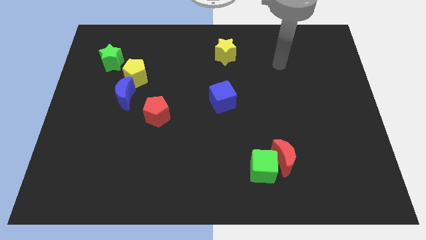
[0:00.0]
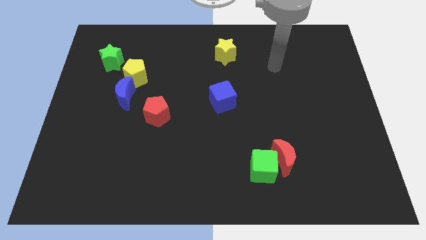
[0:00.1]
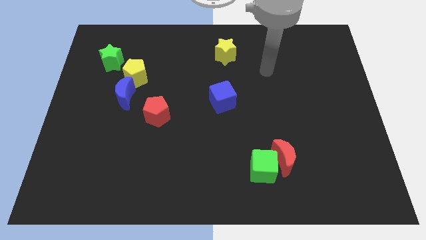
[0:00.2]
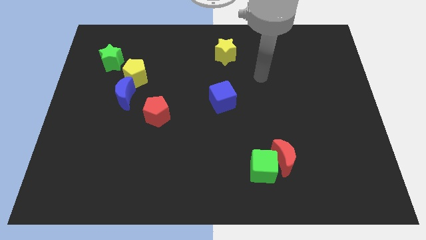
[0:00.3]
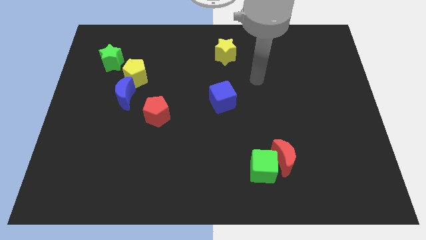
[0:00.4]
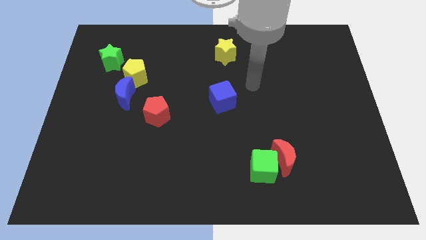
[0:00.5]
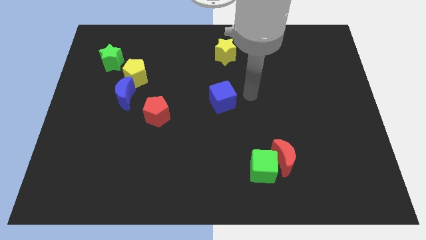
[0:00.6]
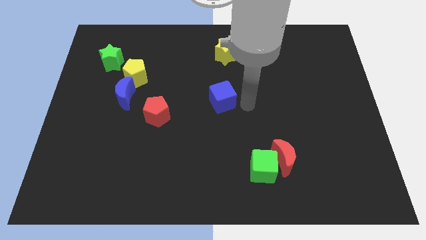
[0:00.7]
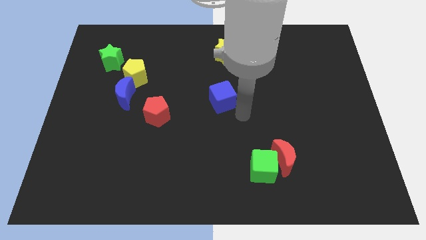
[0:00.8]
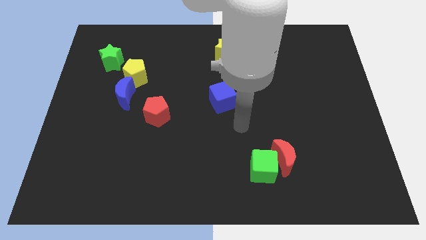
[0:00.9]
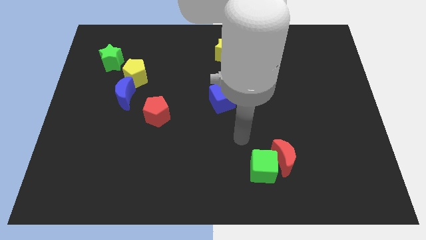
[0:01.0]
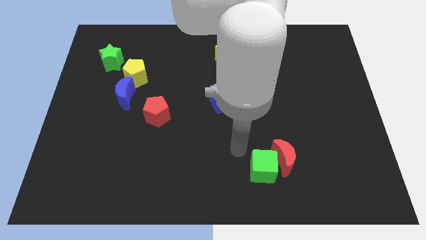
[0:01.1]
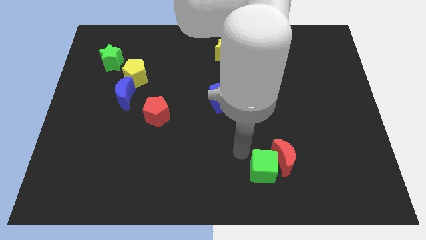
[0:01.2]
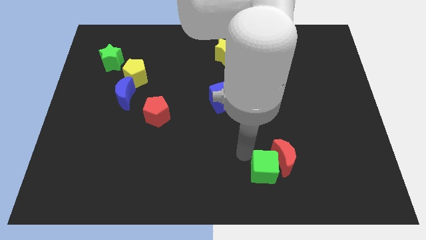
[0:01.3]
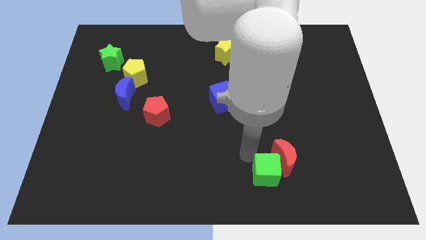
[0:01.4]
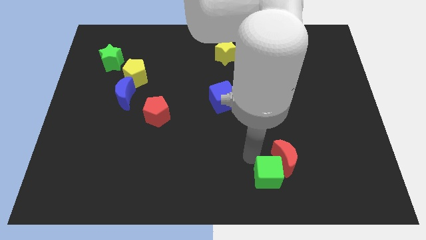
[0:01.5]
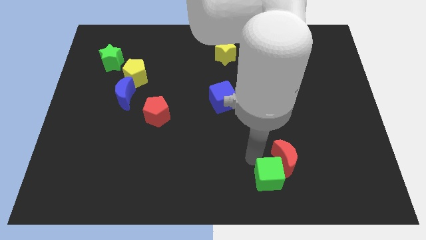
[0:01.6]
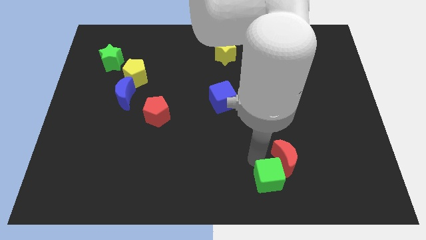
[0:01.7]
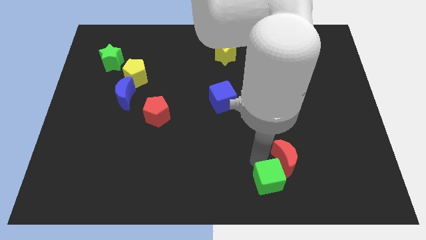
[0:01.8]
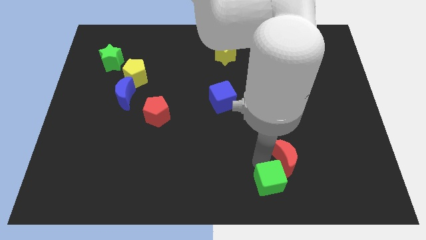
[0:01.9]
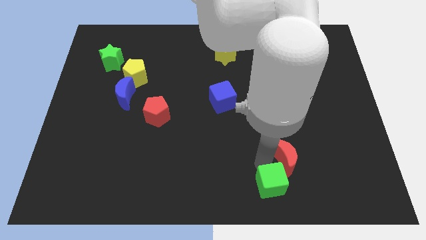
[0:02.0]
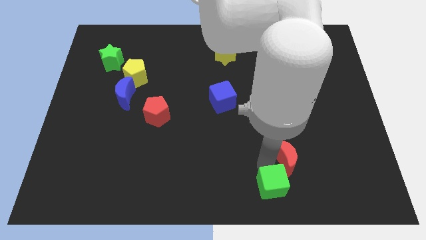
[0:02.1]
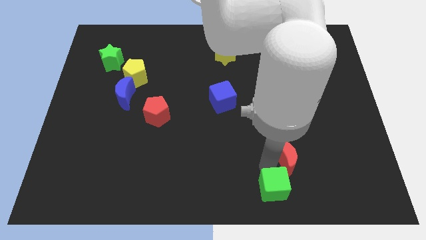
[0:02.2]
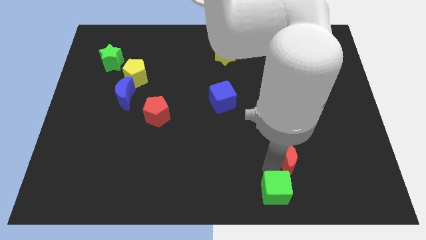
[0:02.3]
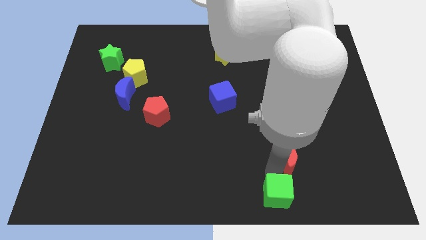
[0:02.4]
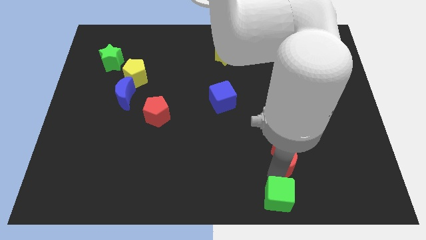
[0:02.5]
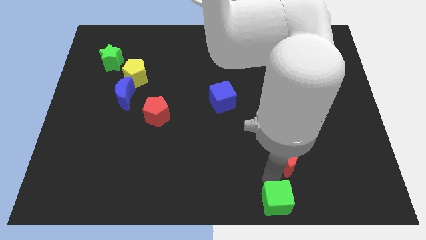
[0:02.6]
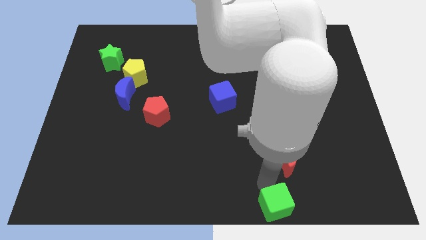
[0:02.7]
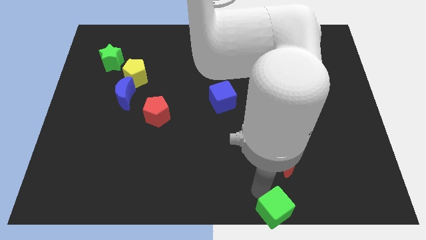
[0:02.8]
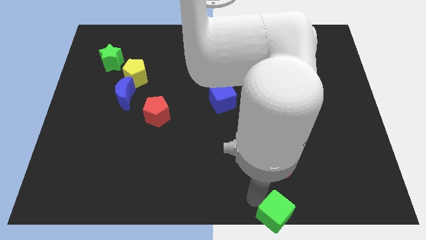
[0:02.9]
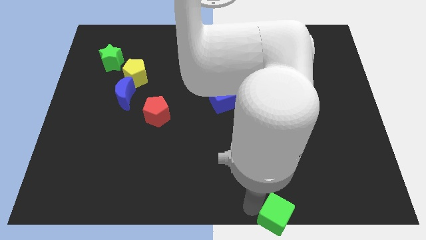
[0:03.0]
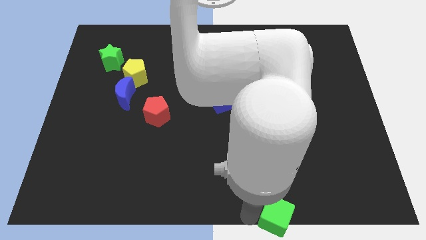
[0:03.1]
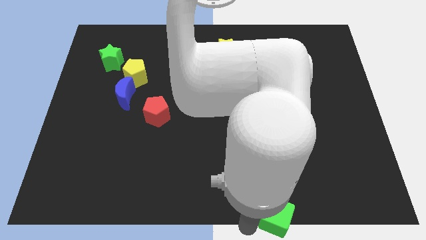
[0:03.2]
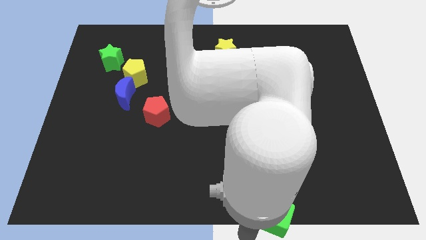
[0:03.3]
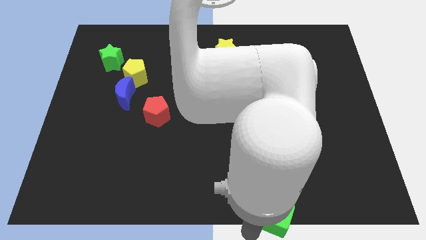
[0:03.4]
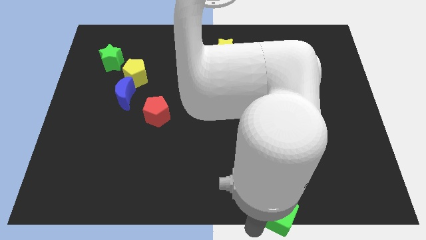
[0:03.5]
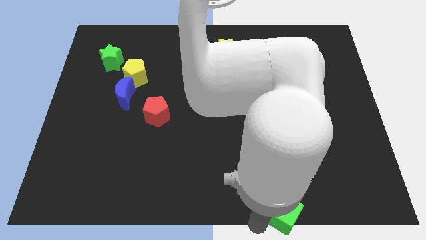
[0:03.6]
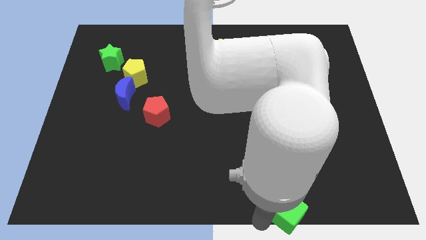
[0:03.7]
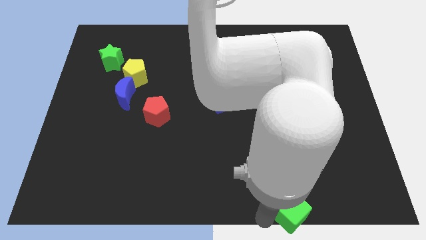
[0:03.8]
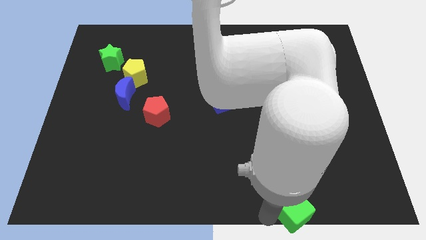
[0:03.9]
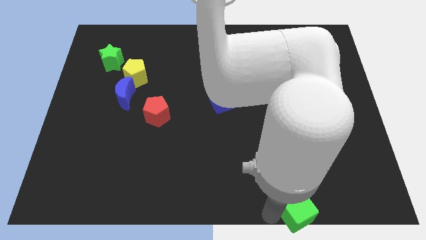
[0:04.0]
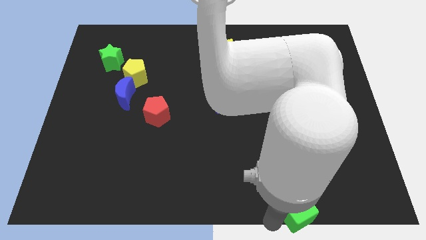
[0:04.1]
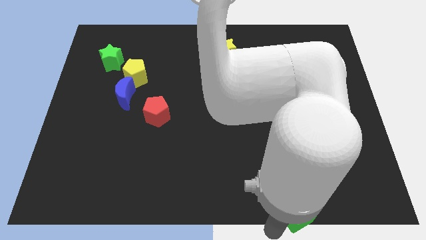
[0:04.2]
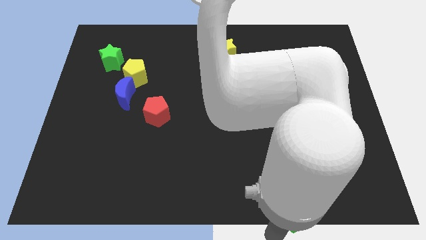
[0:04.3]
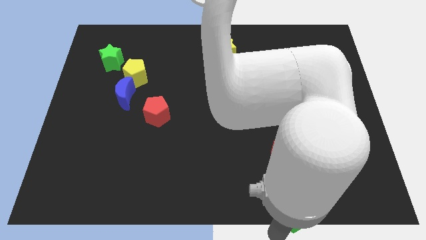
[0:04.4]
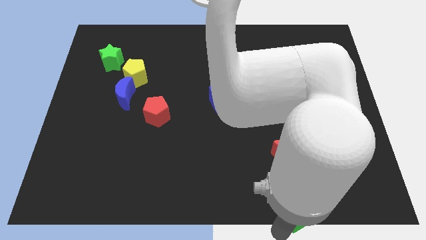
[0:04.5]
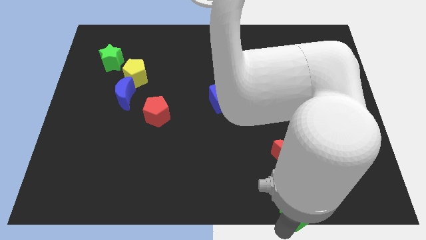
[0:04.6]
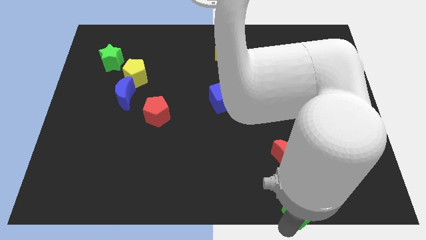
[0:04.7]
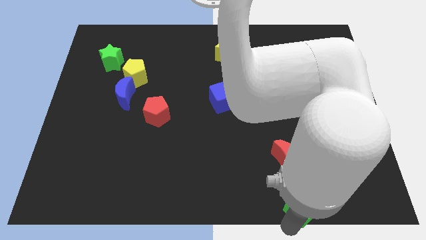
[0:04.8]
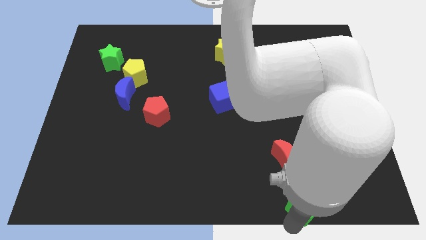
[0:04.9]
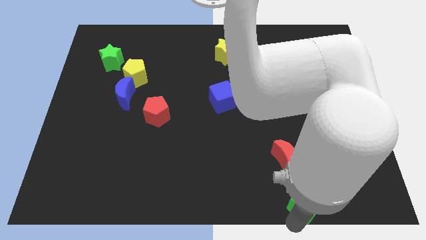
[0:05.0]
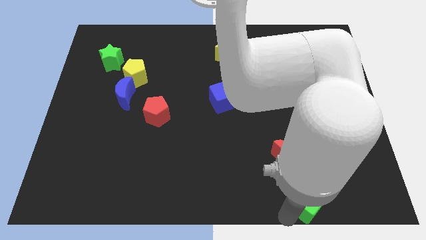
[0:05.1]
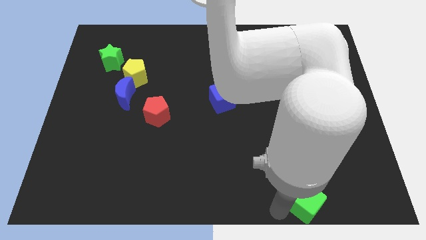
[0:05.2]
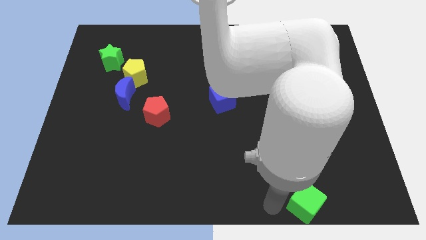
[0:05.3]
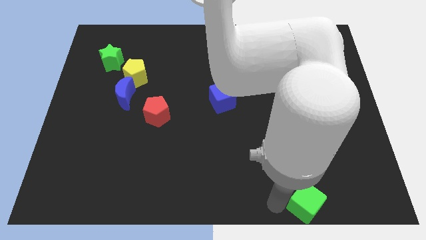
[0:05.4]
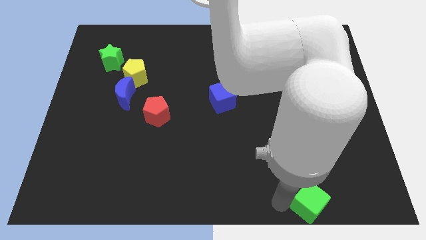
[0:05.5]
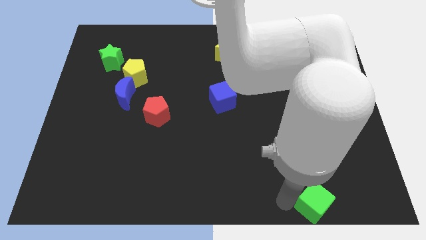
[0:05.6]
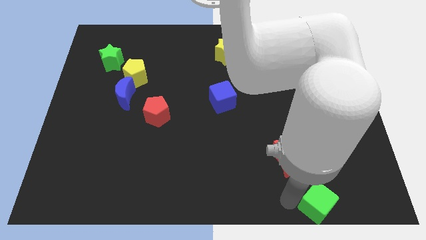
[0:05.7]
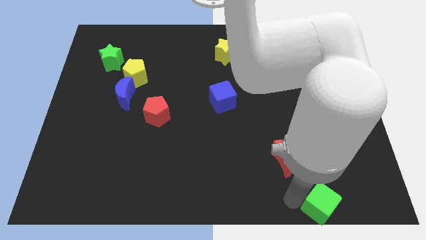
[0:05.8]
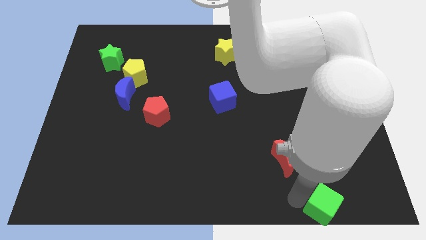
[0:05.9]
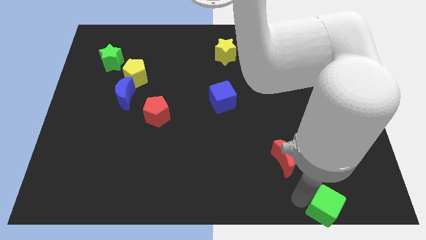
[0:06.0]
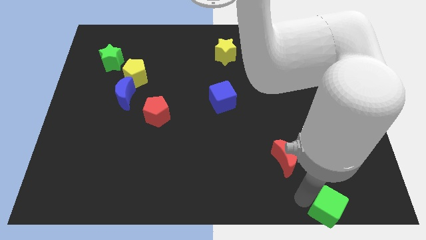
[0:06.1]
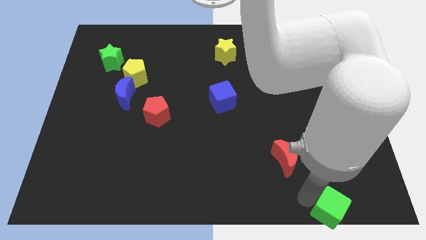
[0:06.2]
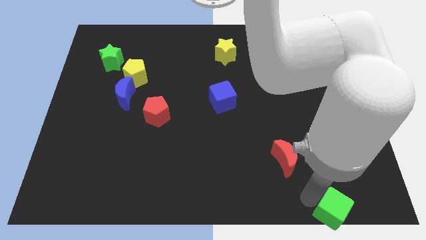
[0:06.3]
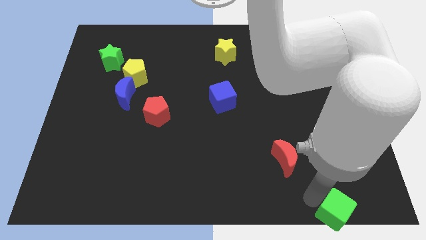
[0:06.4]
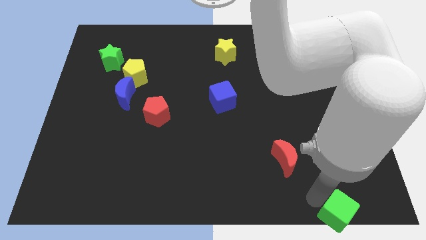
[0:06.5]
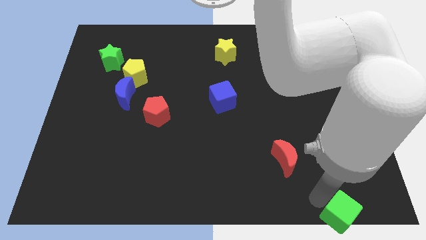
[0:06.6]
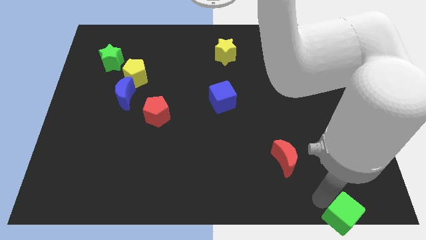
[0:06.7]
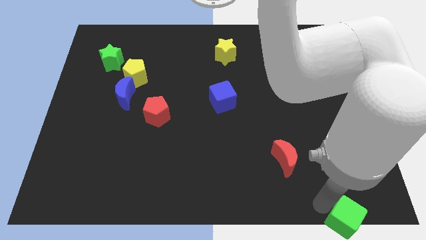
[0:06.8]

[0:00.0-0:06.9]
push the green cube to the lower right corner
